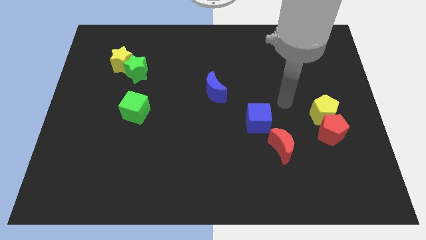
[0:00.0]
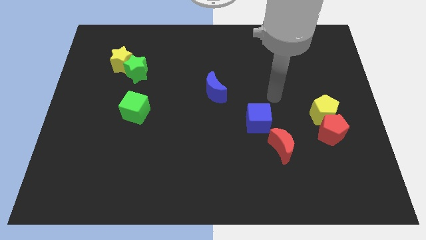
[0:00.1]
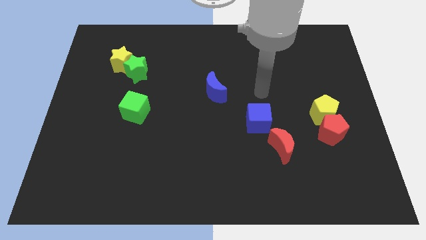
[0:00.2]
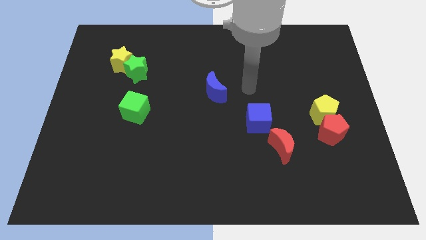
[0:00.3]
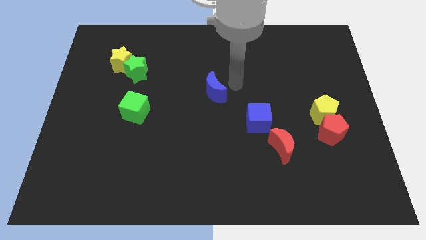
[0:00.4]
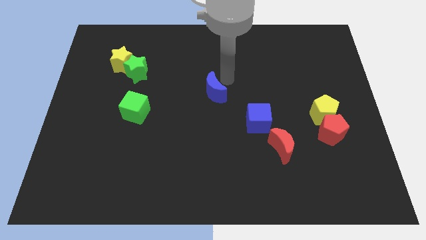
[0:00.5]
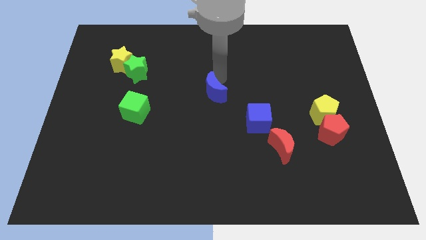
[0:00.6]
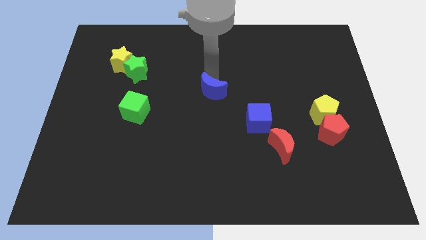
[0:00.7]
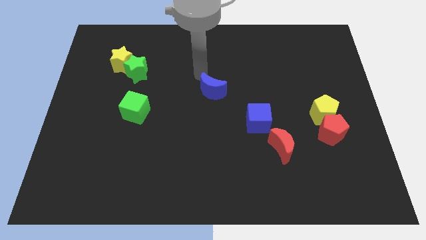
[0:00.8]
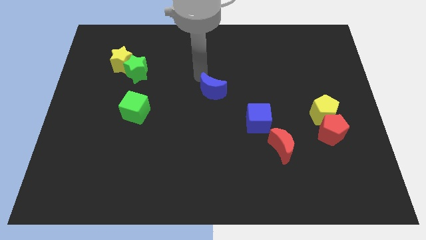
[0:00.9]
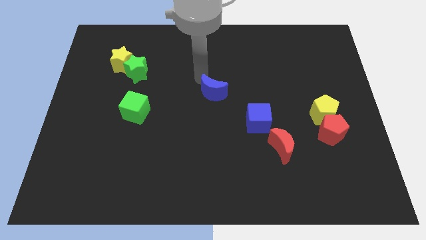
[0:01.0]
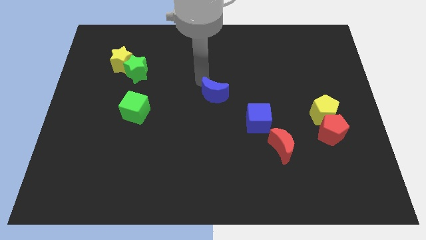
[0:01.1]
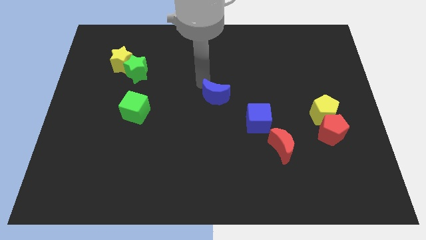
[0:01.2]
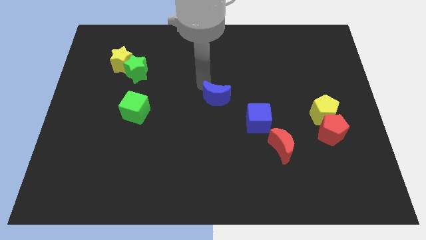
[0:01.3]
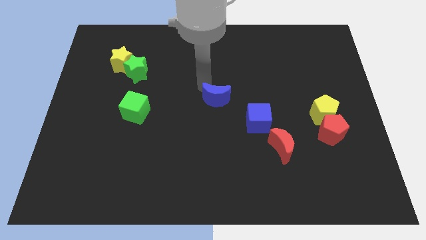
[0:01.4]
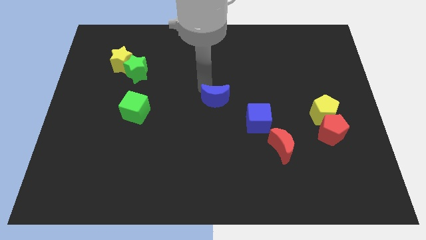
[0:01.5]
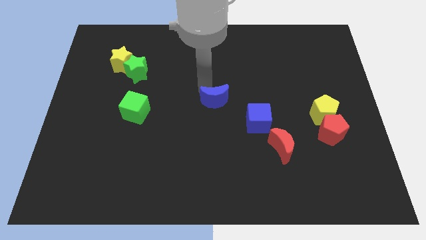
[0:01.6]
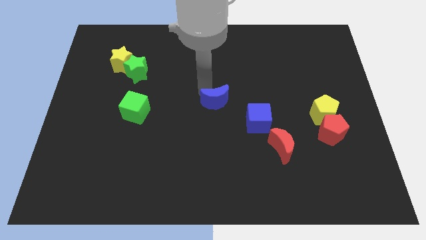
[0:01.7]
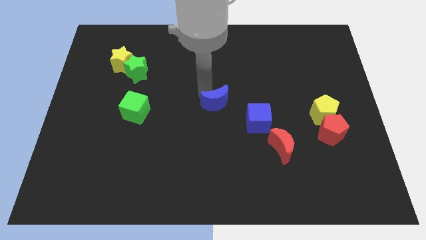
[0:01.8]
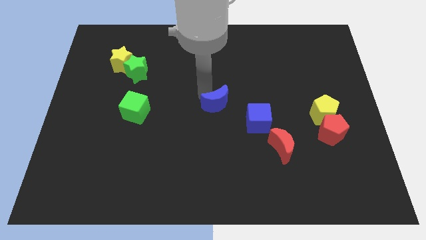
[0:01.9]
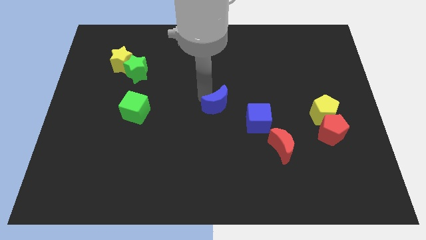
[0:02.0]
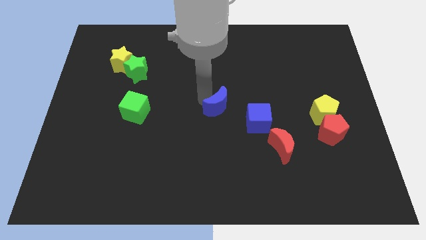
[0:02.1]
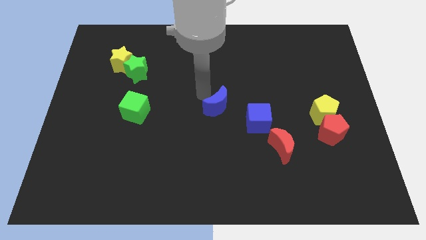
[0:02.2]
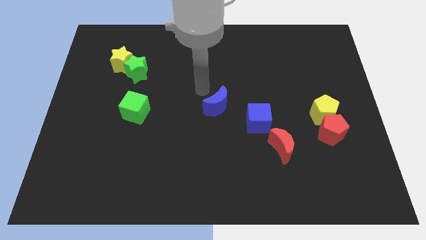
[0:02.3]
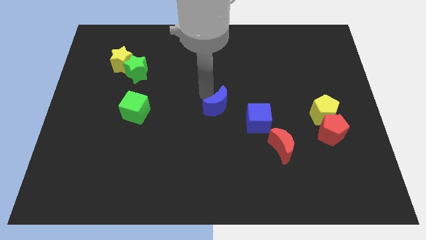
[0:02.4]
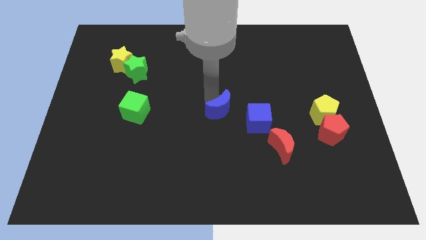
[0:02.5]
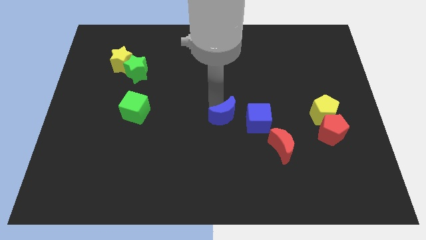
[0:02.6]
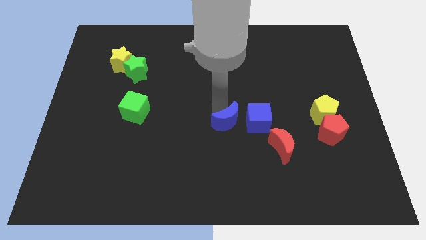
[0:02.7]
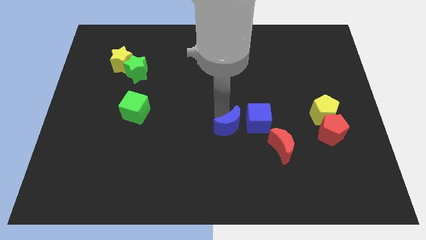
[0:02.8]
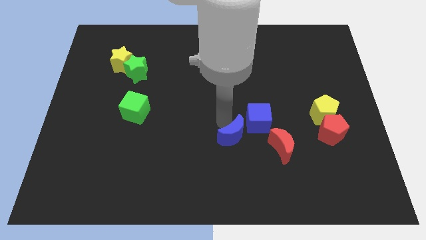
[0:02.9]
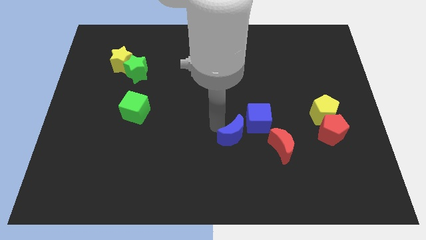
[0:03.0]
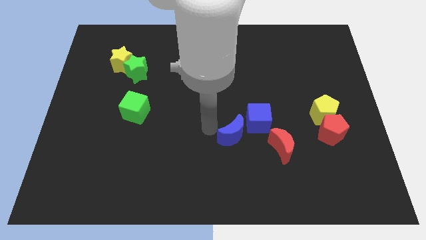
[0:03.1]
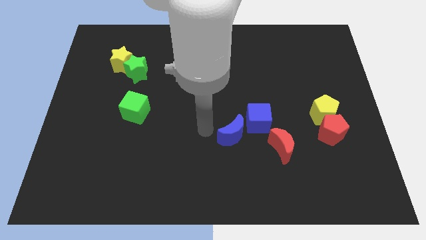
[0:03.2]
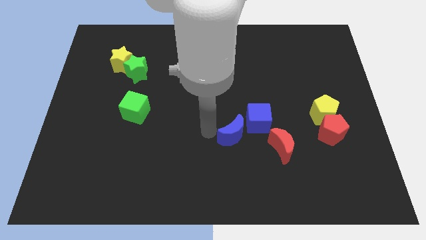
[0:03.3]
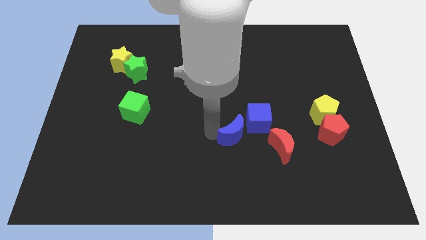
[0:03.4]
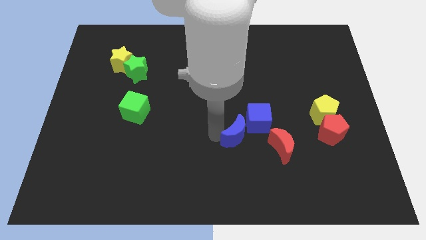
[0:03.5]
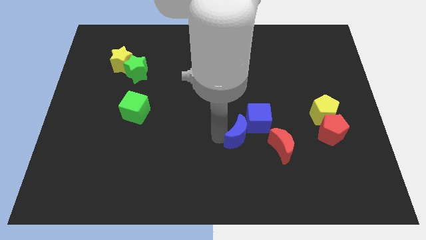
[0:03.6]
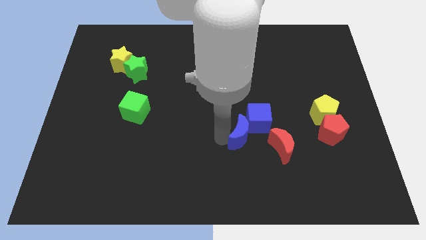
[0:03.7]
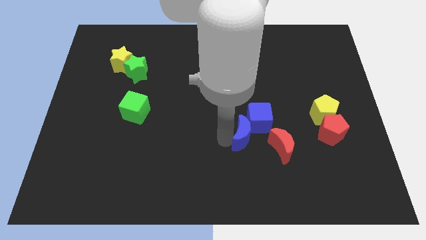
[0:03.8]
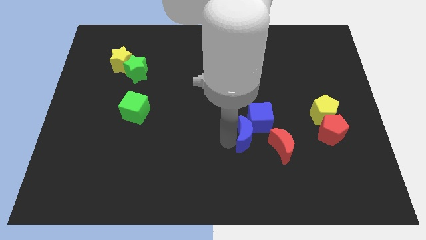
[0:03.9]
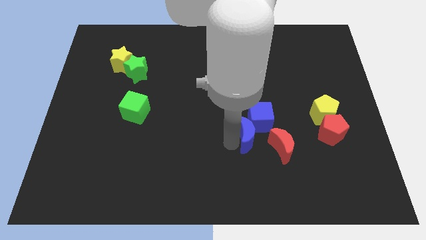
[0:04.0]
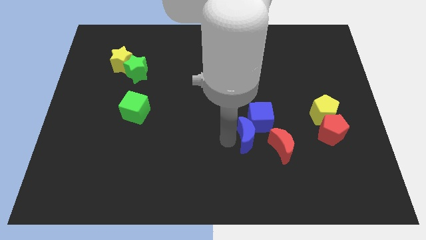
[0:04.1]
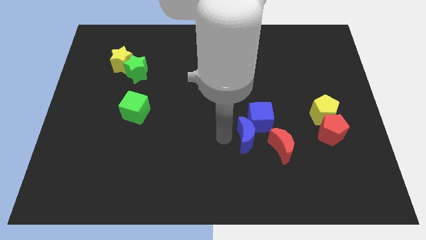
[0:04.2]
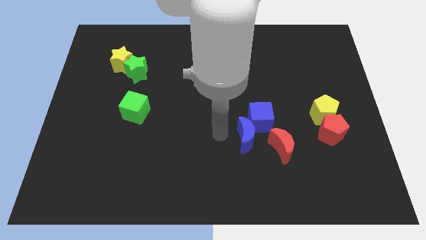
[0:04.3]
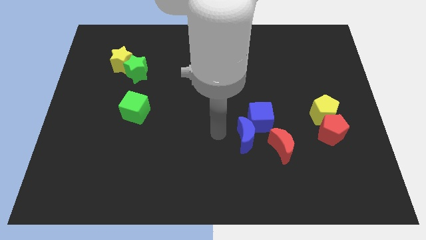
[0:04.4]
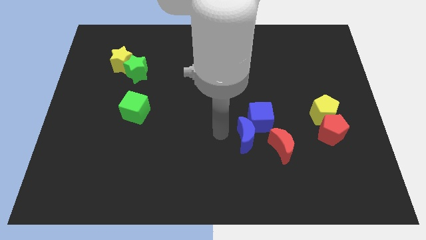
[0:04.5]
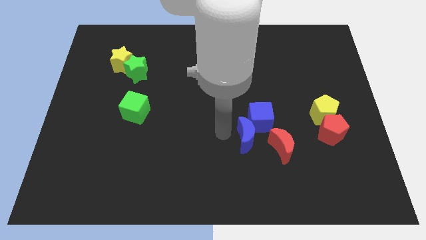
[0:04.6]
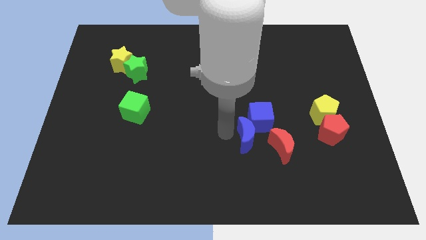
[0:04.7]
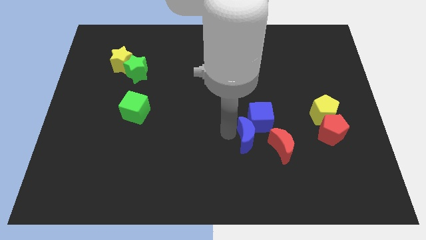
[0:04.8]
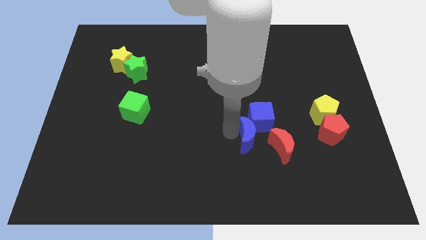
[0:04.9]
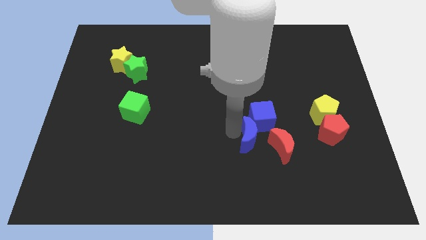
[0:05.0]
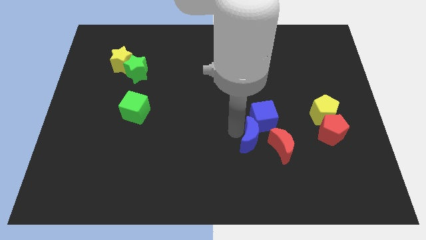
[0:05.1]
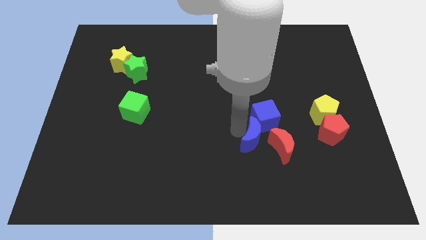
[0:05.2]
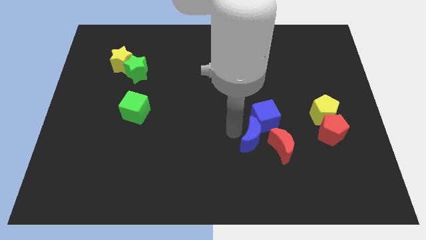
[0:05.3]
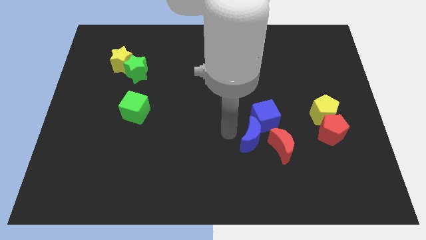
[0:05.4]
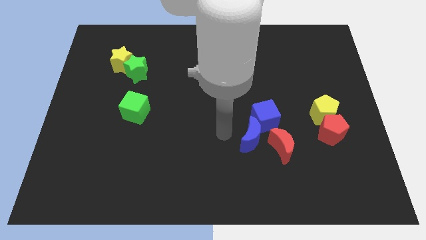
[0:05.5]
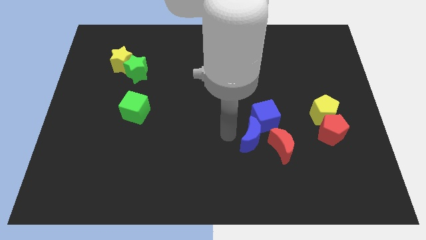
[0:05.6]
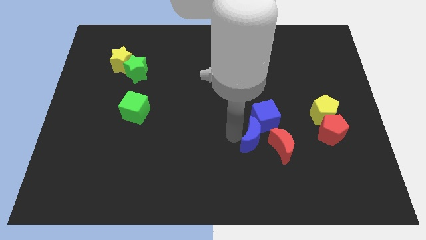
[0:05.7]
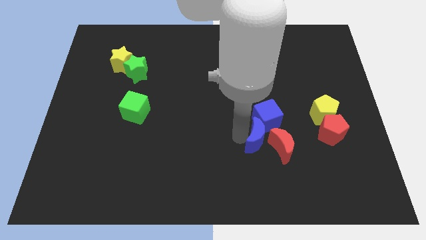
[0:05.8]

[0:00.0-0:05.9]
put the blue moon close to the red moon
